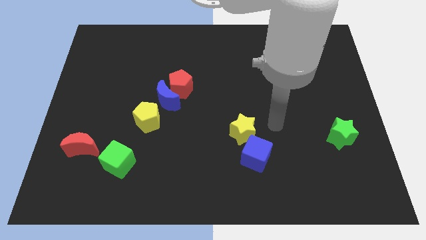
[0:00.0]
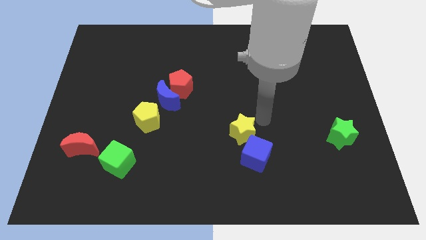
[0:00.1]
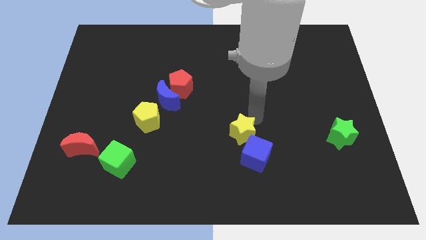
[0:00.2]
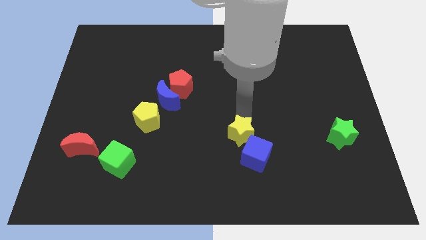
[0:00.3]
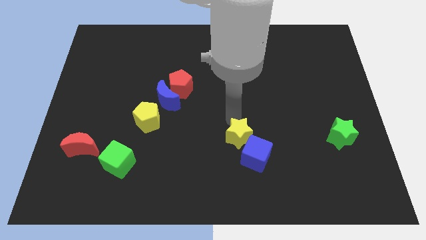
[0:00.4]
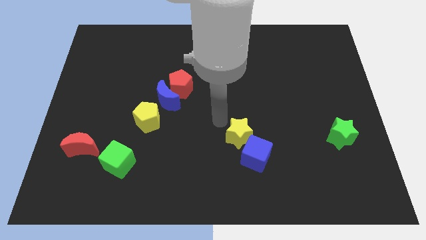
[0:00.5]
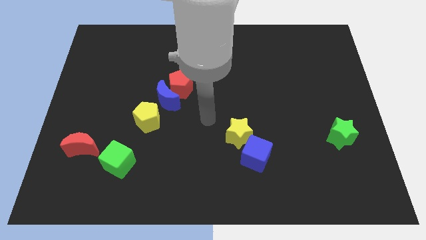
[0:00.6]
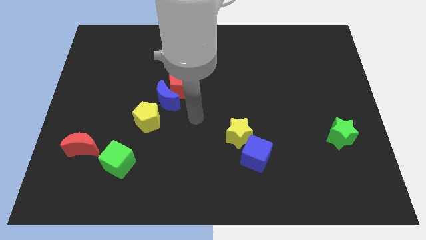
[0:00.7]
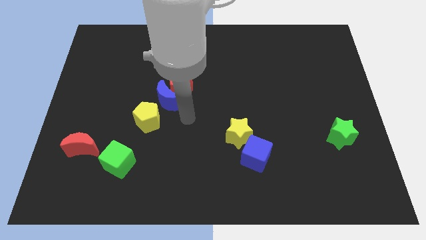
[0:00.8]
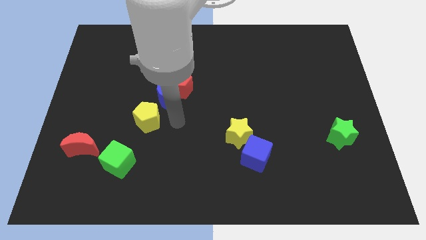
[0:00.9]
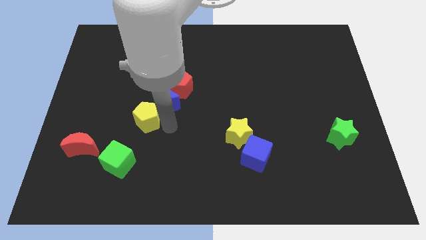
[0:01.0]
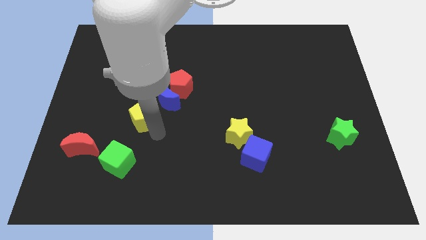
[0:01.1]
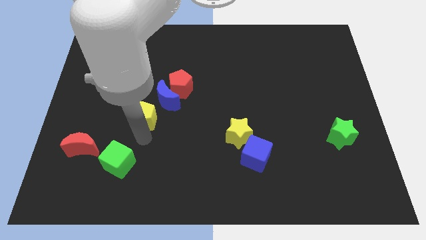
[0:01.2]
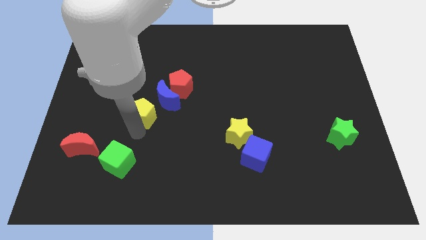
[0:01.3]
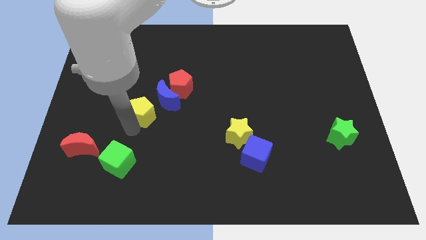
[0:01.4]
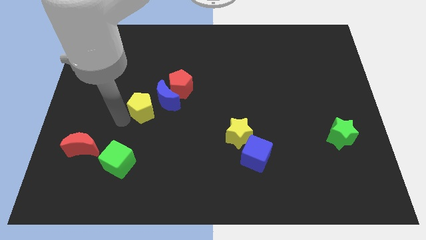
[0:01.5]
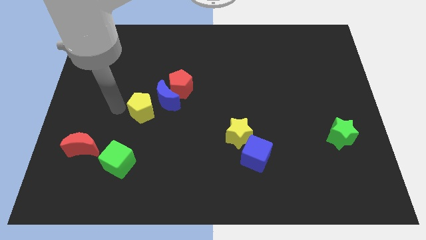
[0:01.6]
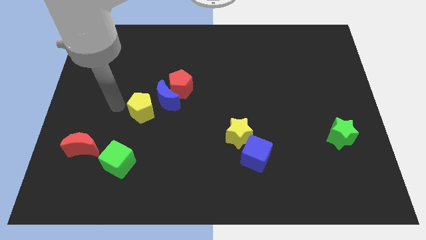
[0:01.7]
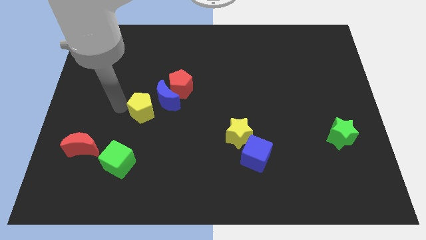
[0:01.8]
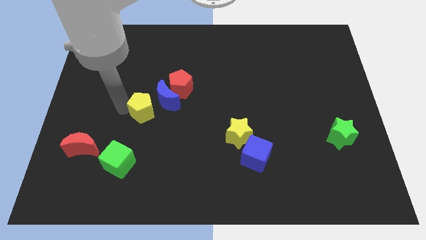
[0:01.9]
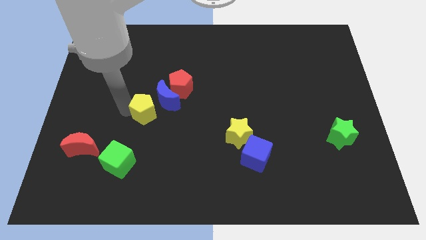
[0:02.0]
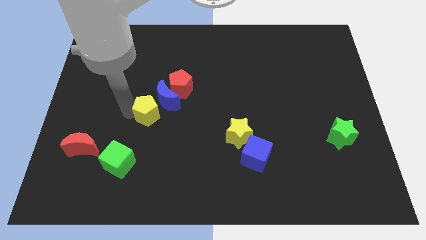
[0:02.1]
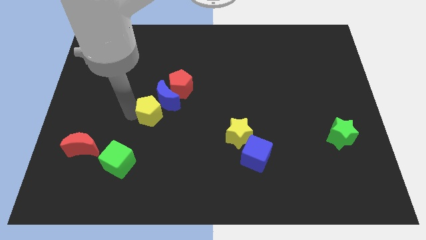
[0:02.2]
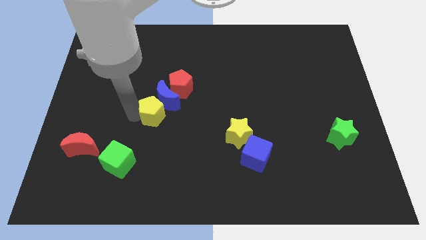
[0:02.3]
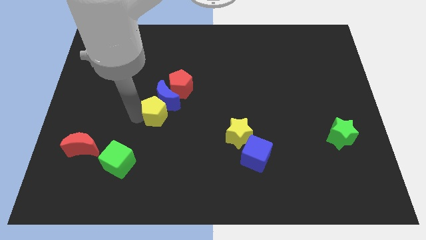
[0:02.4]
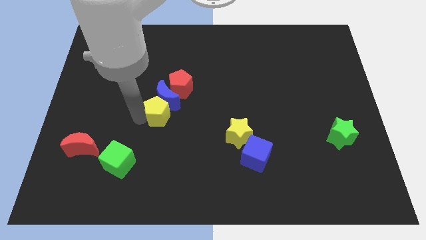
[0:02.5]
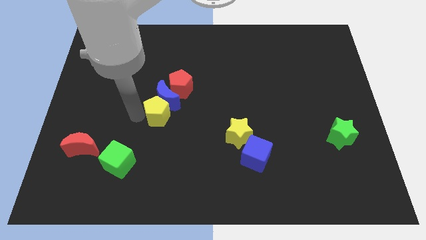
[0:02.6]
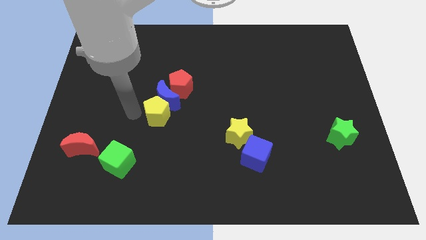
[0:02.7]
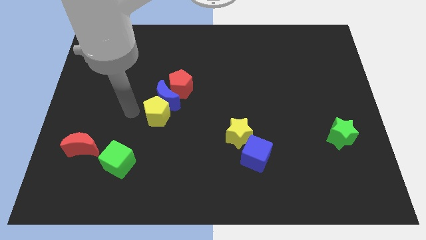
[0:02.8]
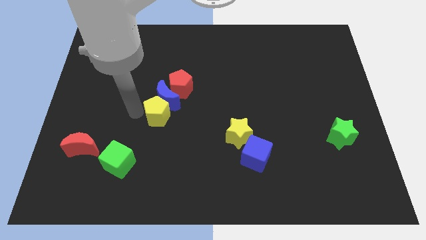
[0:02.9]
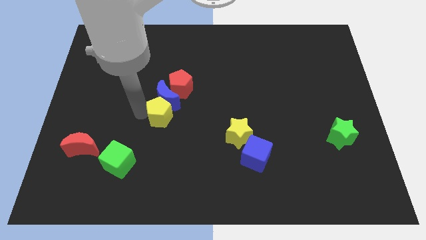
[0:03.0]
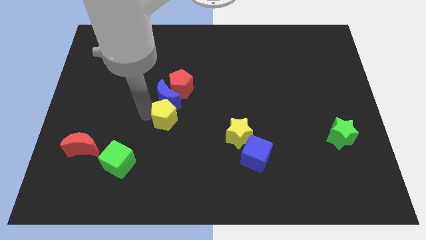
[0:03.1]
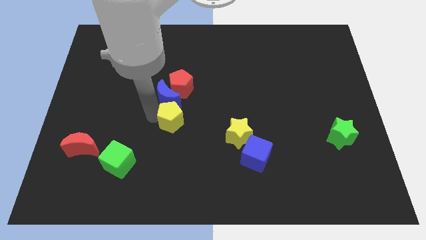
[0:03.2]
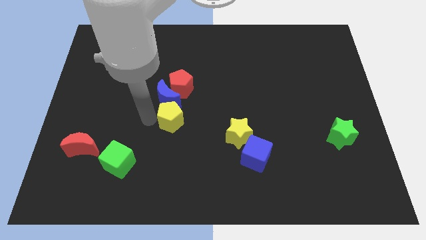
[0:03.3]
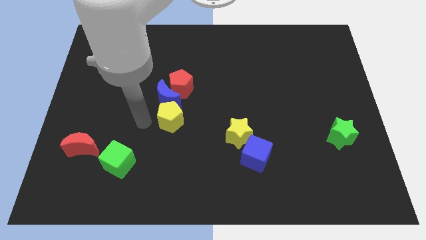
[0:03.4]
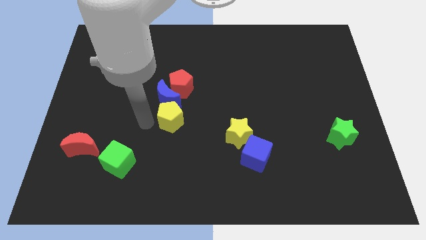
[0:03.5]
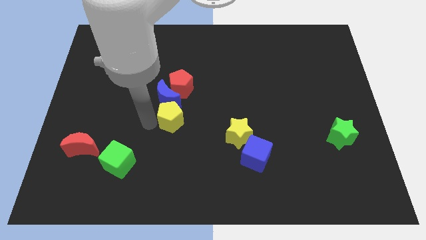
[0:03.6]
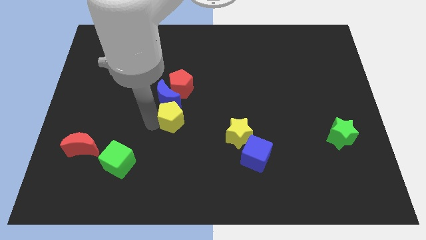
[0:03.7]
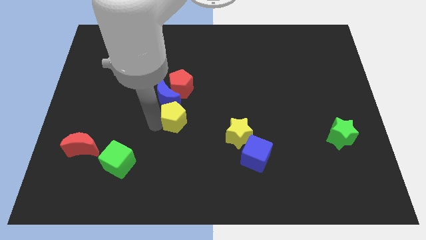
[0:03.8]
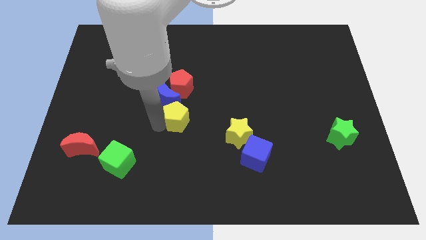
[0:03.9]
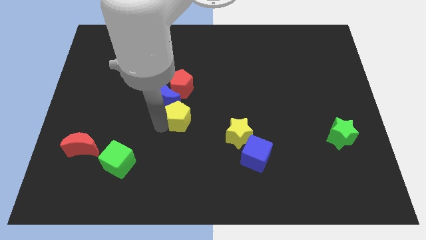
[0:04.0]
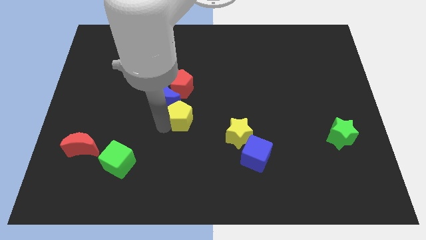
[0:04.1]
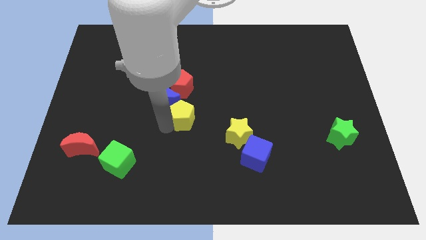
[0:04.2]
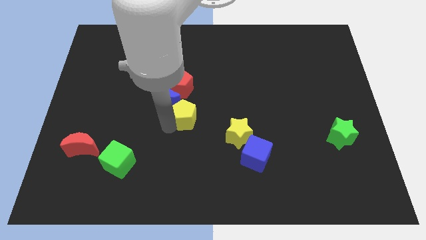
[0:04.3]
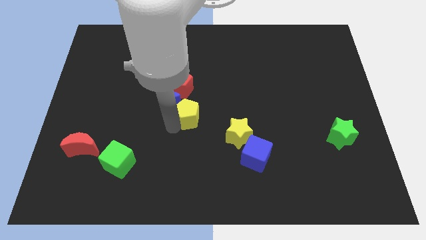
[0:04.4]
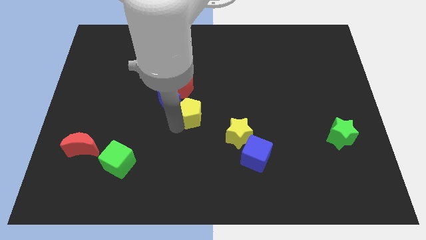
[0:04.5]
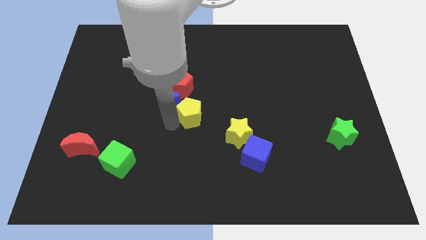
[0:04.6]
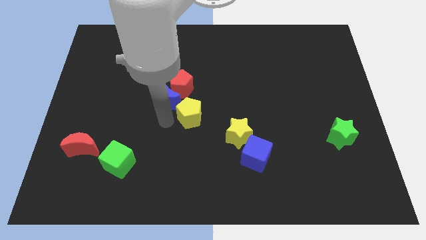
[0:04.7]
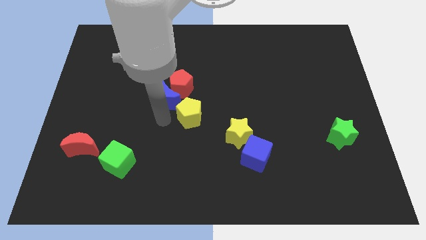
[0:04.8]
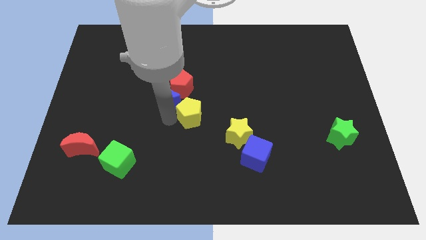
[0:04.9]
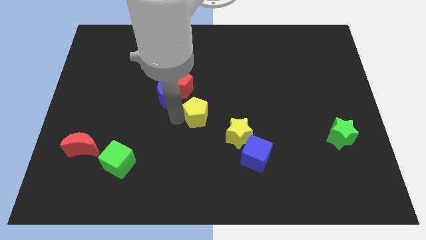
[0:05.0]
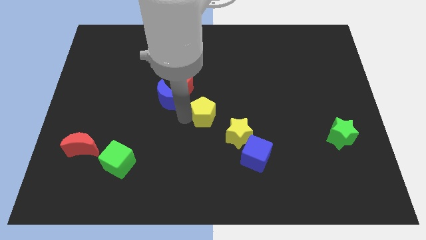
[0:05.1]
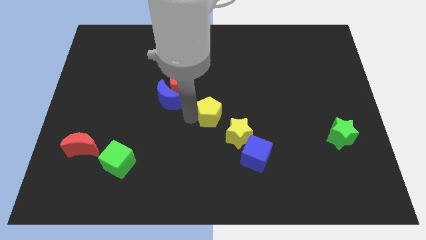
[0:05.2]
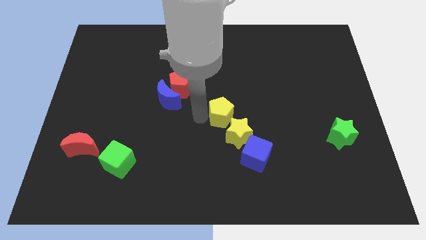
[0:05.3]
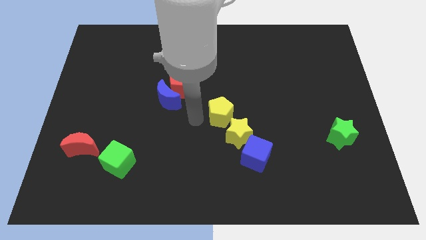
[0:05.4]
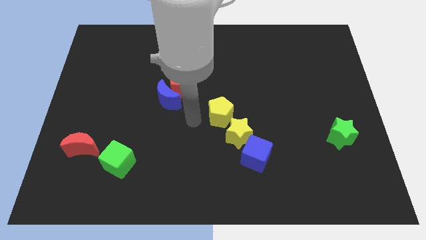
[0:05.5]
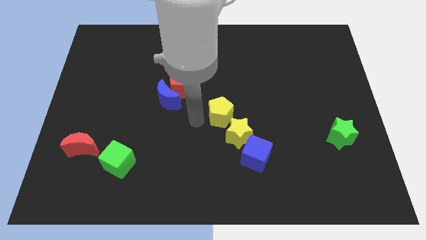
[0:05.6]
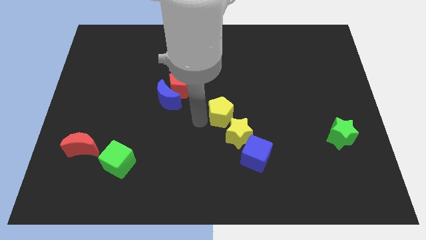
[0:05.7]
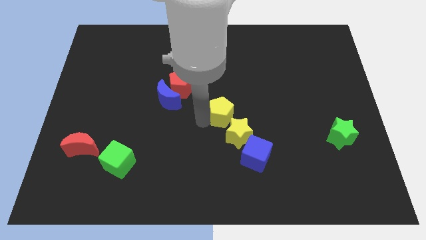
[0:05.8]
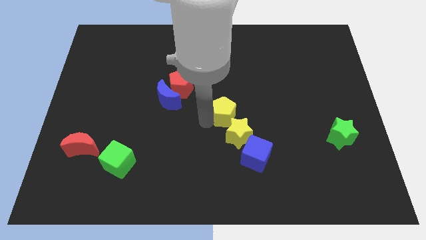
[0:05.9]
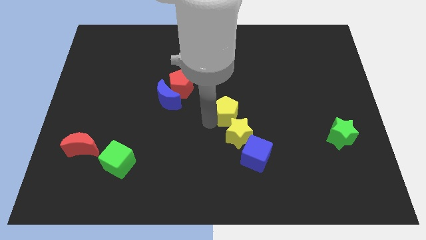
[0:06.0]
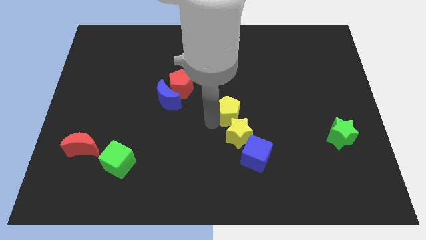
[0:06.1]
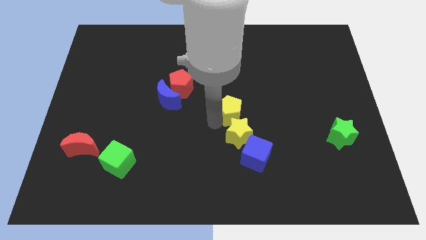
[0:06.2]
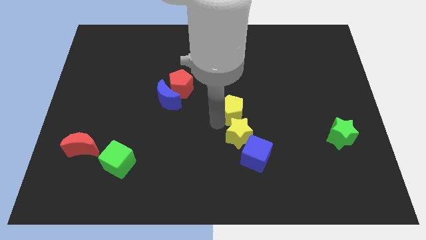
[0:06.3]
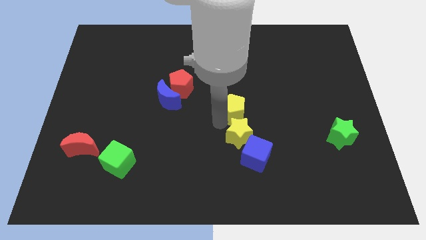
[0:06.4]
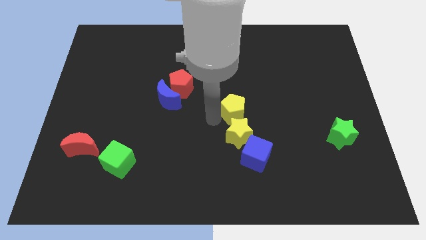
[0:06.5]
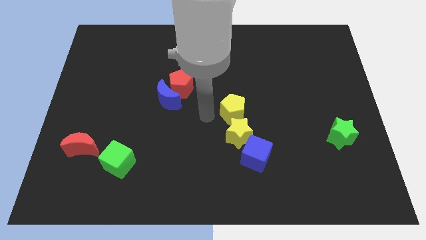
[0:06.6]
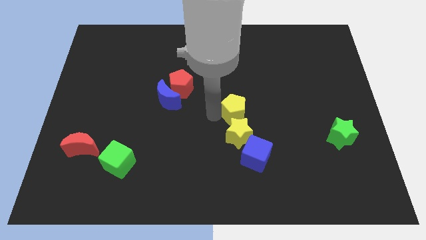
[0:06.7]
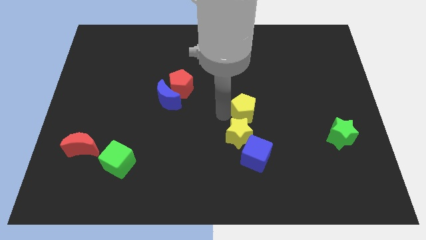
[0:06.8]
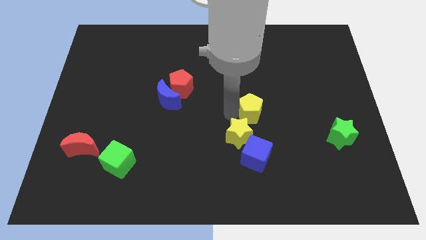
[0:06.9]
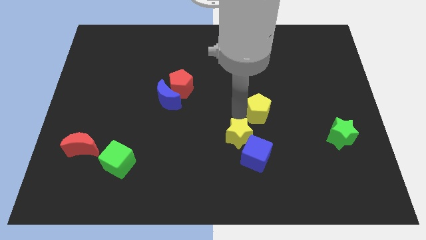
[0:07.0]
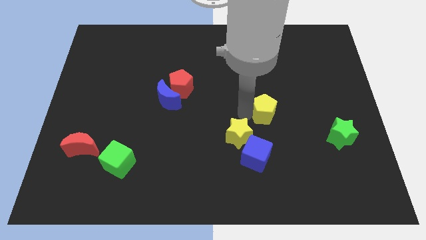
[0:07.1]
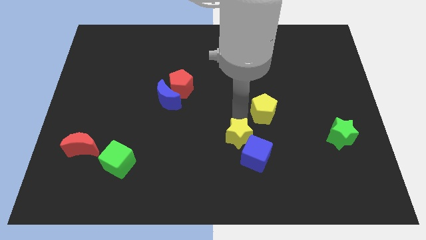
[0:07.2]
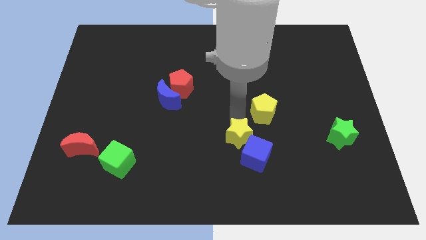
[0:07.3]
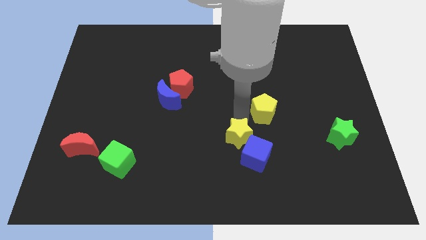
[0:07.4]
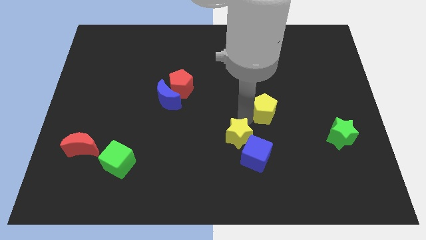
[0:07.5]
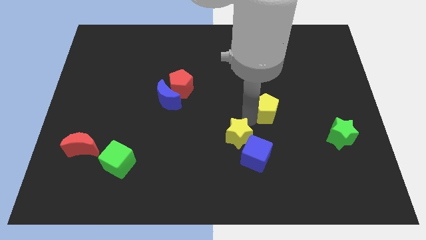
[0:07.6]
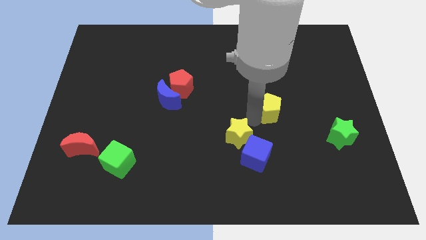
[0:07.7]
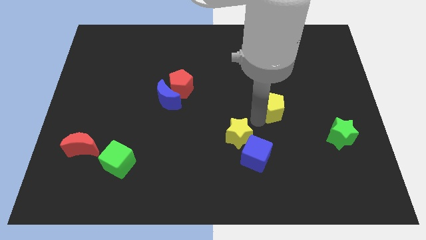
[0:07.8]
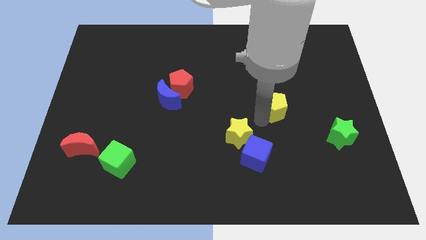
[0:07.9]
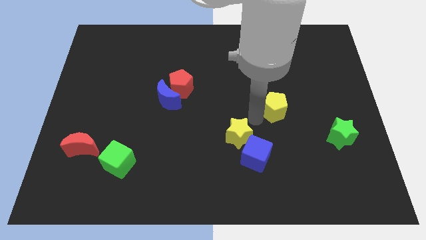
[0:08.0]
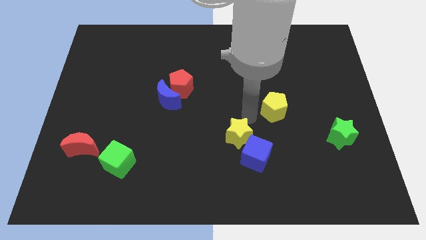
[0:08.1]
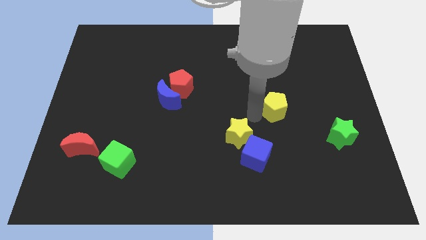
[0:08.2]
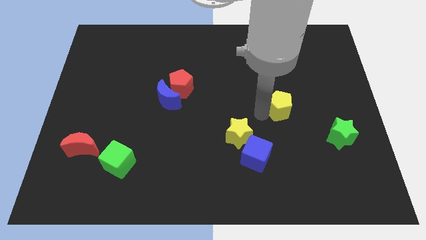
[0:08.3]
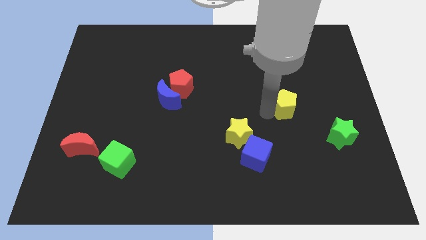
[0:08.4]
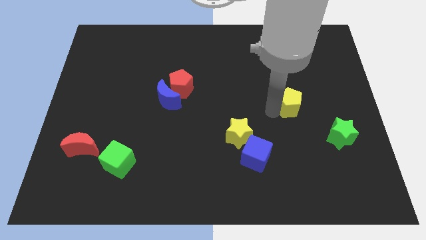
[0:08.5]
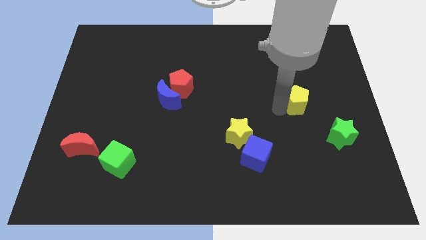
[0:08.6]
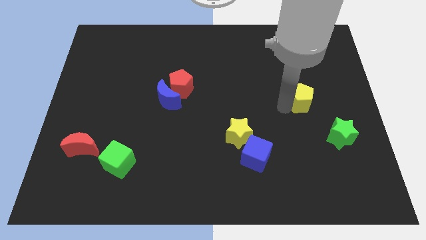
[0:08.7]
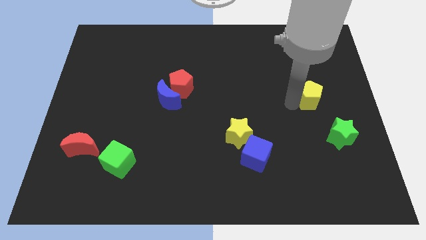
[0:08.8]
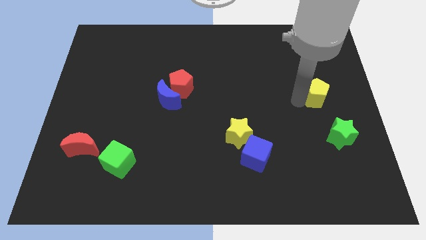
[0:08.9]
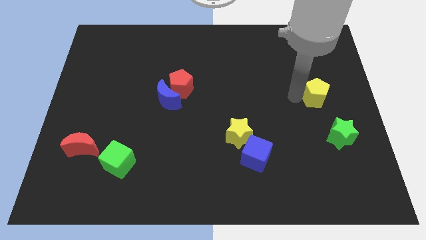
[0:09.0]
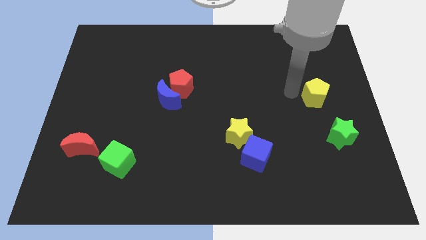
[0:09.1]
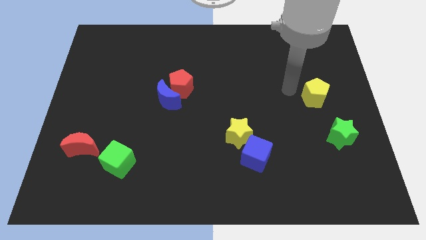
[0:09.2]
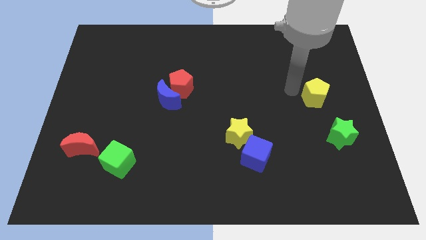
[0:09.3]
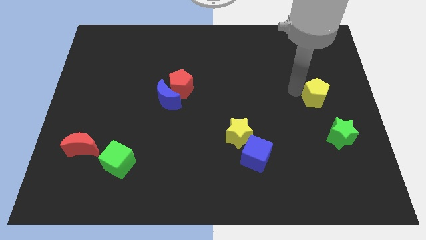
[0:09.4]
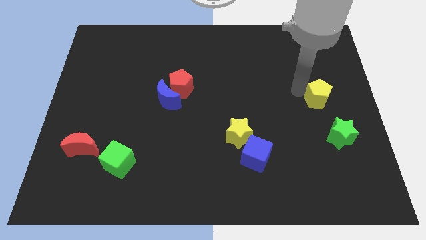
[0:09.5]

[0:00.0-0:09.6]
push the yellow pentagon to the right side
